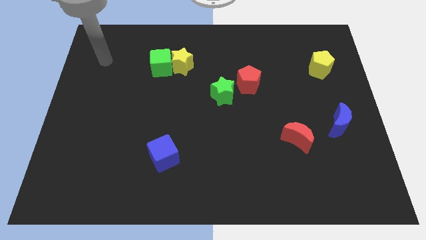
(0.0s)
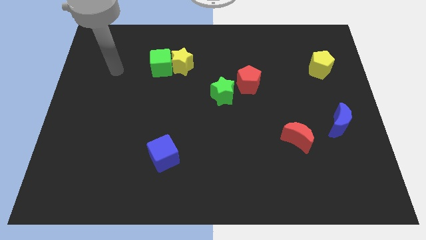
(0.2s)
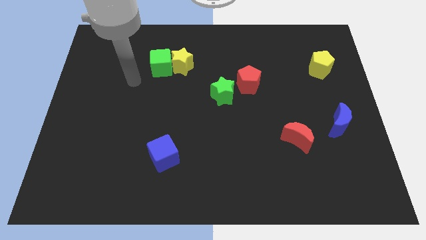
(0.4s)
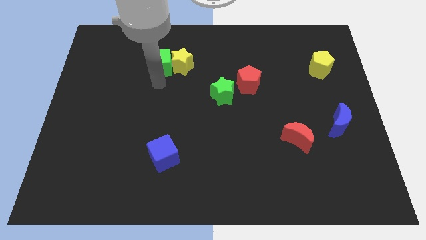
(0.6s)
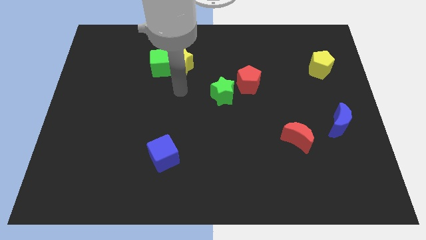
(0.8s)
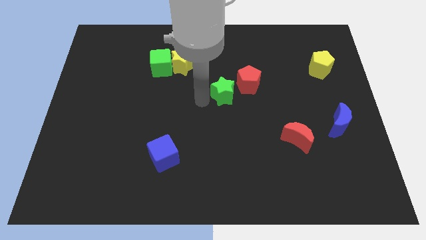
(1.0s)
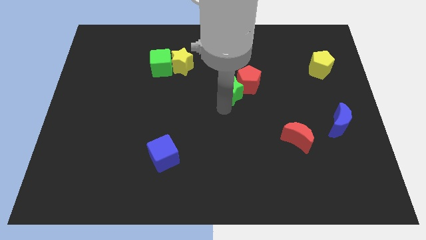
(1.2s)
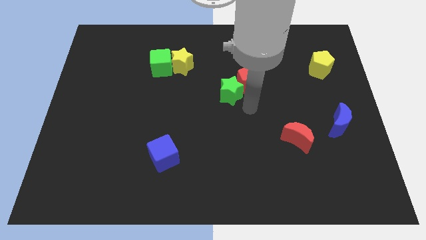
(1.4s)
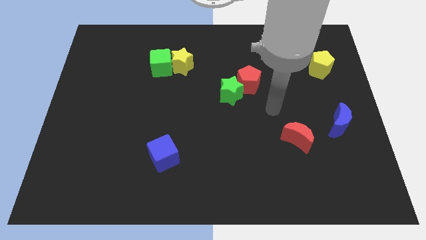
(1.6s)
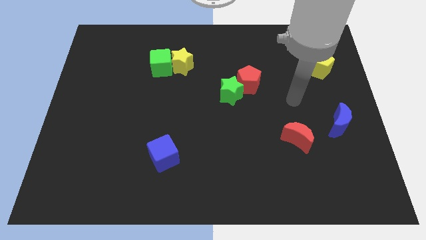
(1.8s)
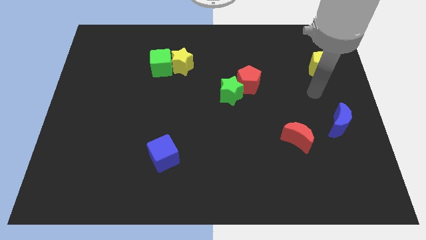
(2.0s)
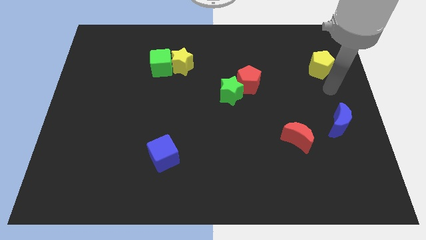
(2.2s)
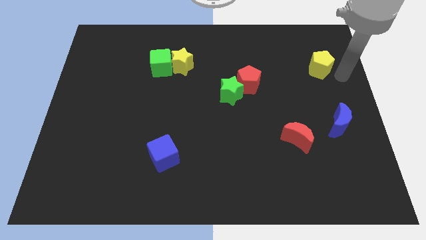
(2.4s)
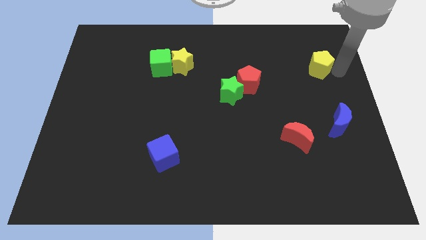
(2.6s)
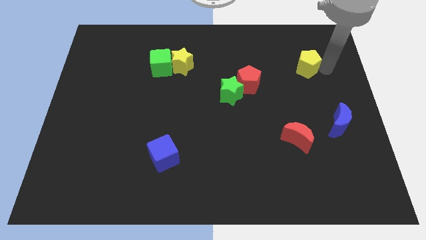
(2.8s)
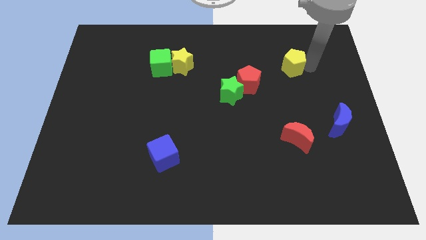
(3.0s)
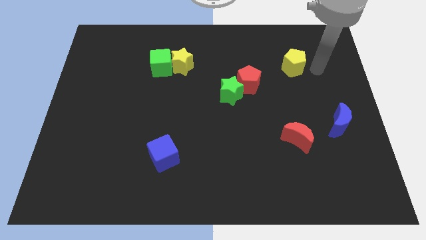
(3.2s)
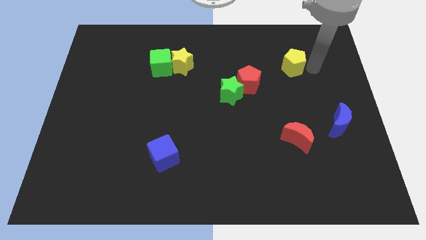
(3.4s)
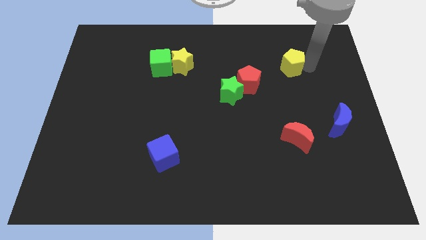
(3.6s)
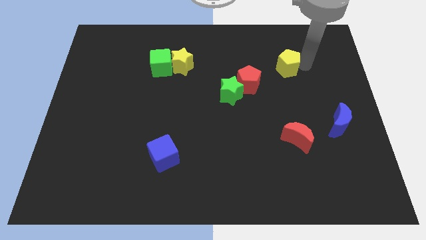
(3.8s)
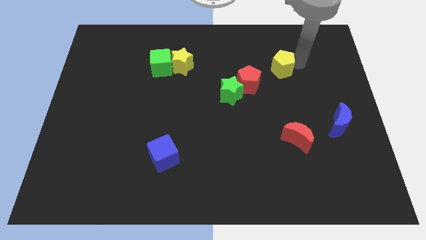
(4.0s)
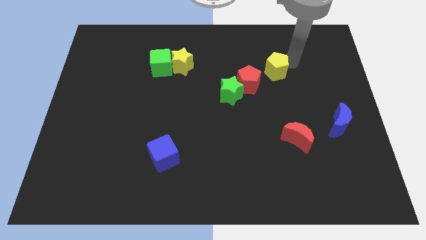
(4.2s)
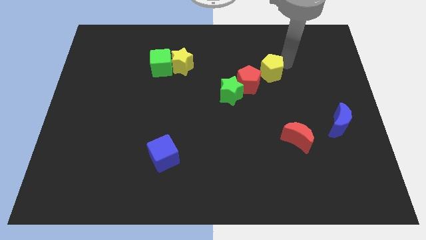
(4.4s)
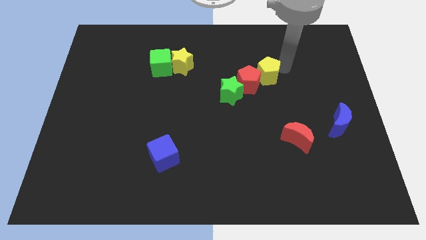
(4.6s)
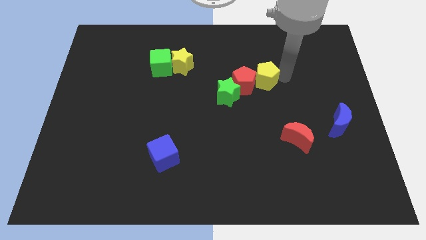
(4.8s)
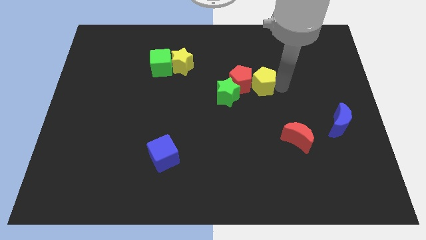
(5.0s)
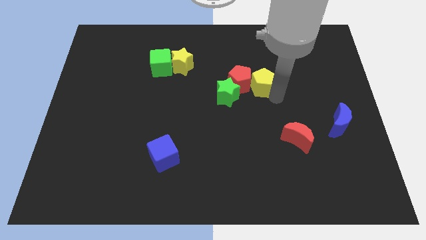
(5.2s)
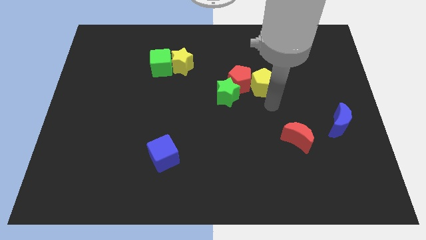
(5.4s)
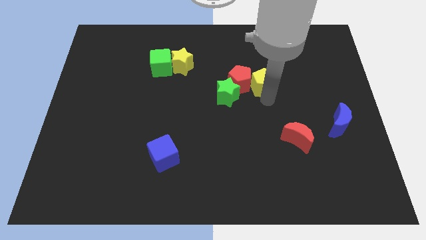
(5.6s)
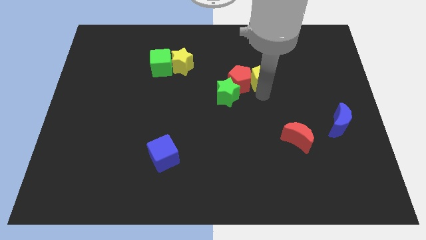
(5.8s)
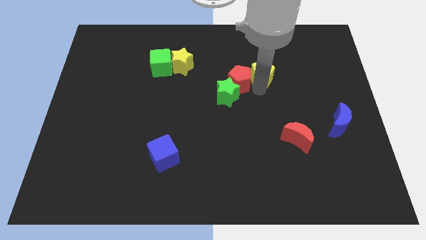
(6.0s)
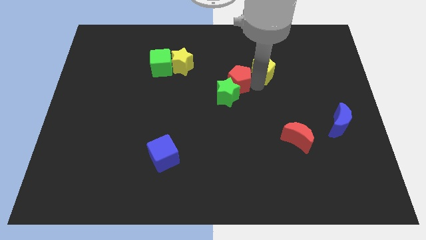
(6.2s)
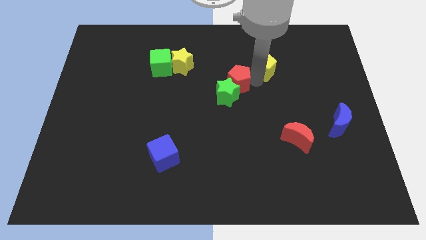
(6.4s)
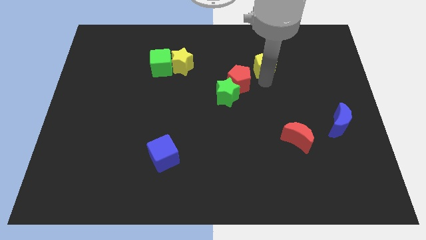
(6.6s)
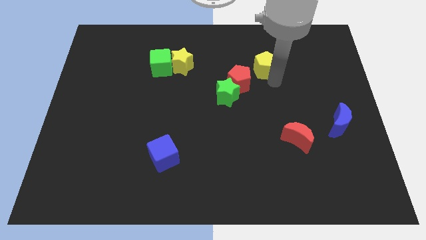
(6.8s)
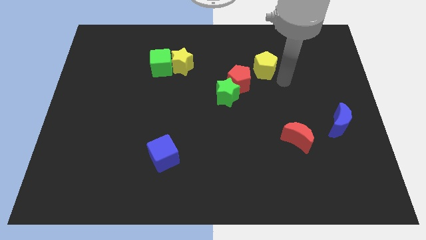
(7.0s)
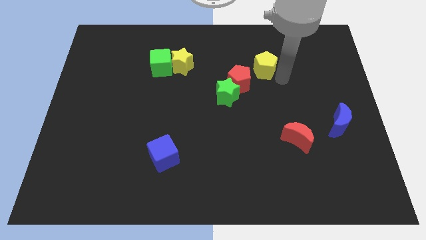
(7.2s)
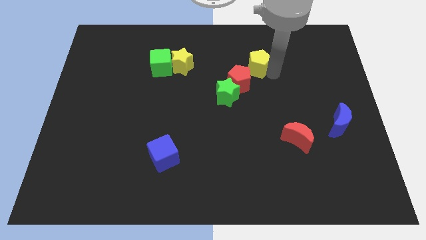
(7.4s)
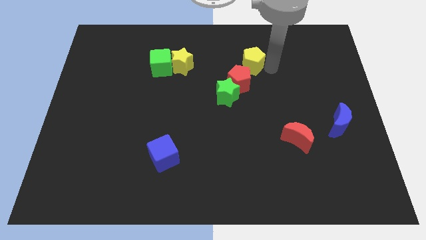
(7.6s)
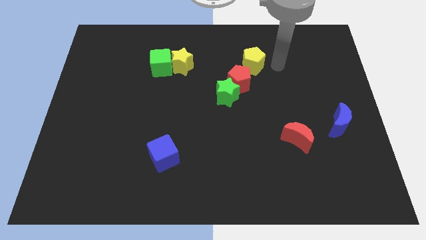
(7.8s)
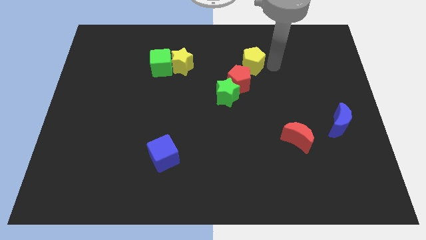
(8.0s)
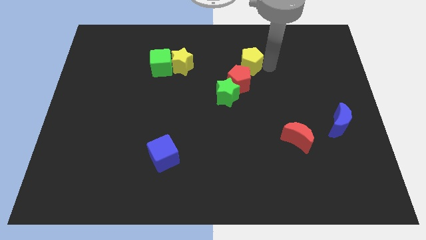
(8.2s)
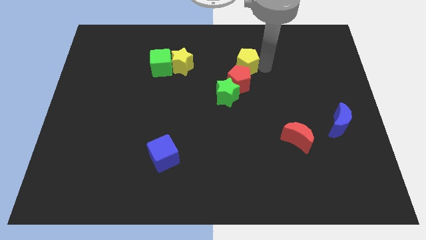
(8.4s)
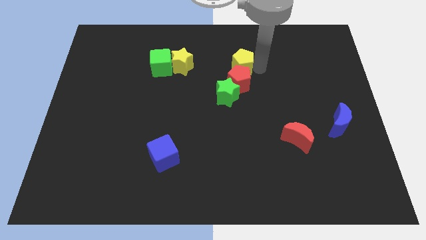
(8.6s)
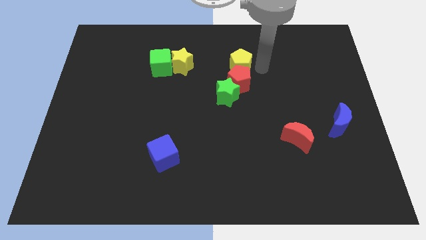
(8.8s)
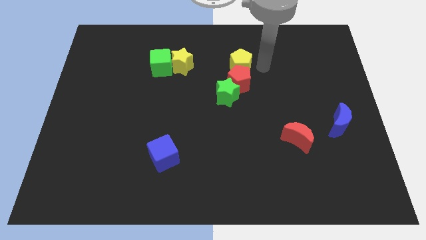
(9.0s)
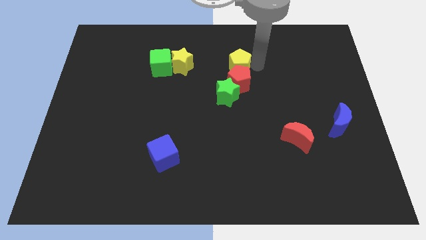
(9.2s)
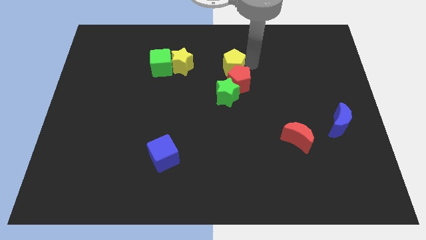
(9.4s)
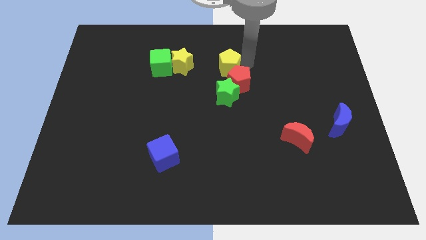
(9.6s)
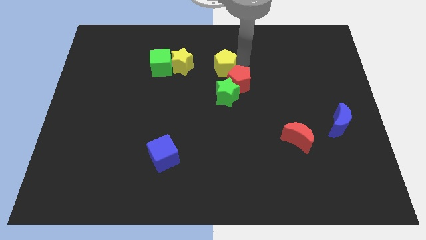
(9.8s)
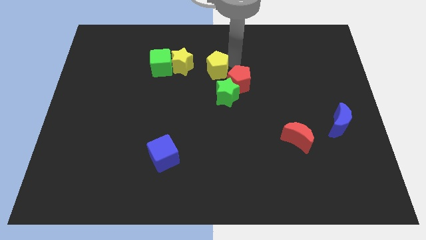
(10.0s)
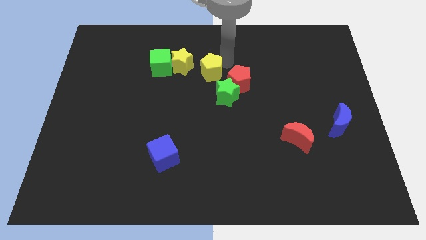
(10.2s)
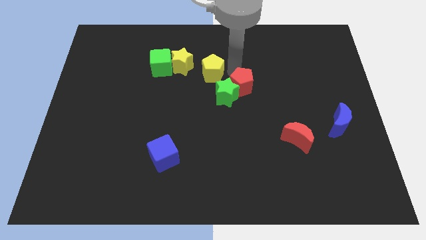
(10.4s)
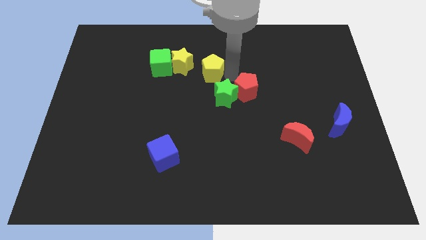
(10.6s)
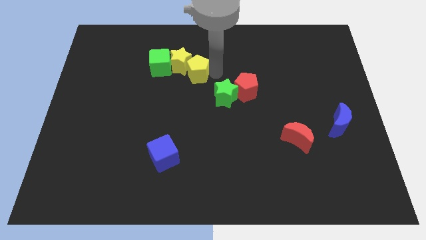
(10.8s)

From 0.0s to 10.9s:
push the yellow pentagon close to the yellow star
